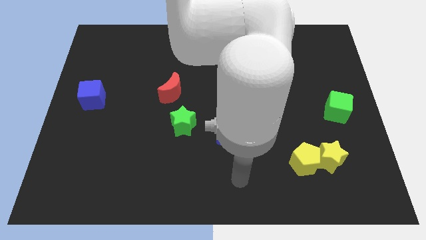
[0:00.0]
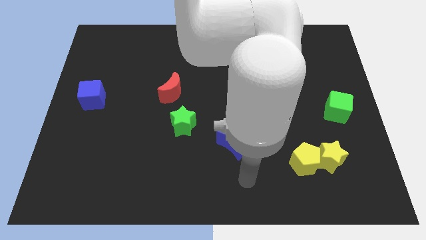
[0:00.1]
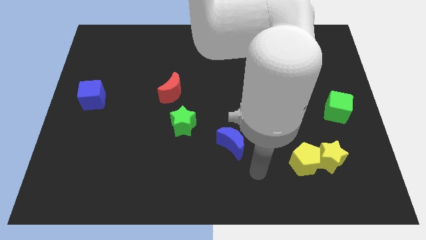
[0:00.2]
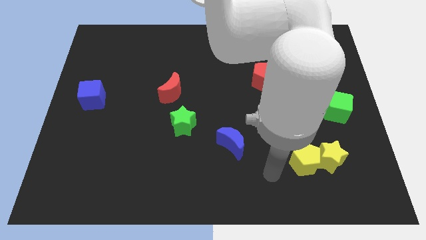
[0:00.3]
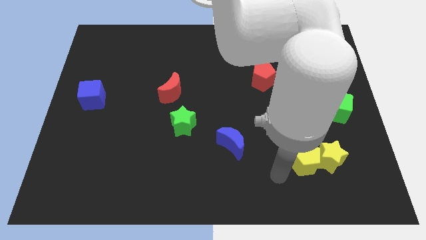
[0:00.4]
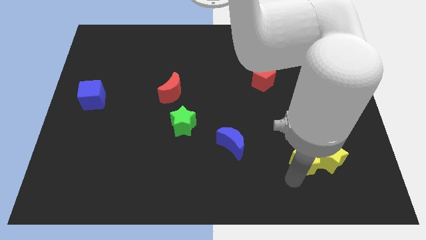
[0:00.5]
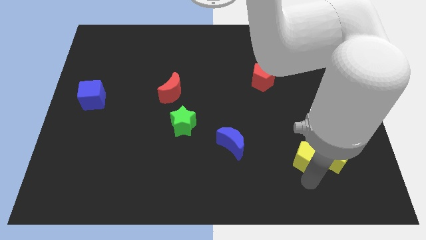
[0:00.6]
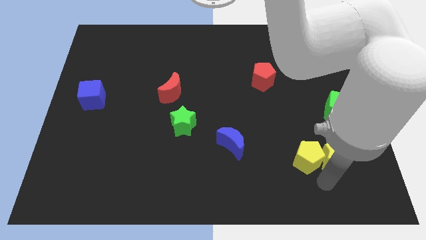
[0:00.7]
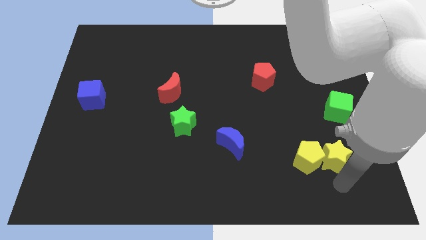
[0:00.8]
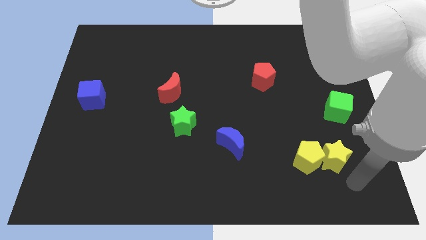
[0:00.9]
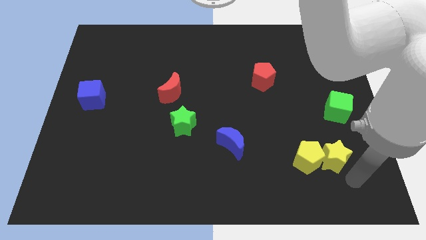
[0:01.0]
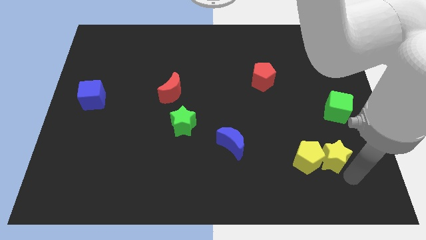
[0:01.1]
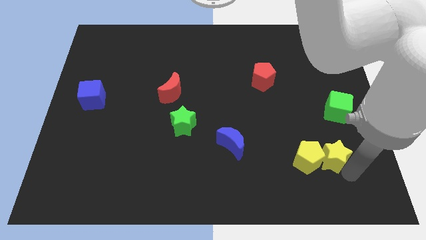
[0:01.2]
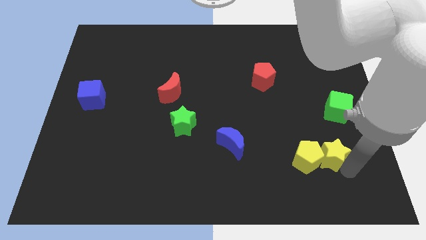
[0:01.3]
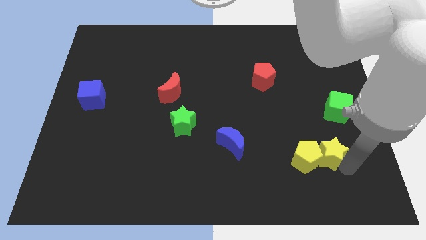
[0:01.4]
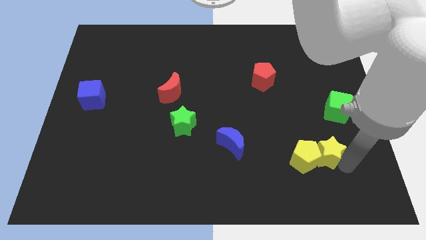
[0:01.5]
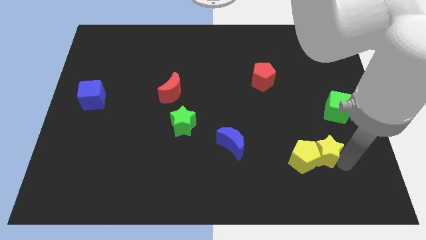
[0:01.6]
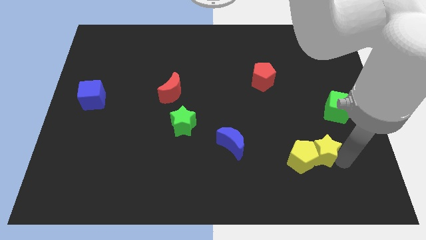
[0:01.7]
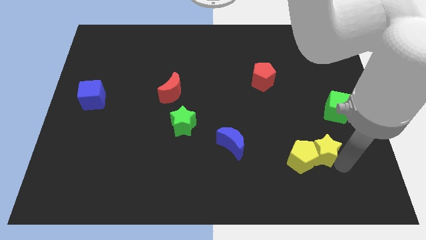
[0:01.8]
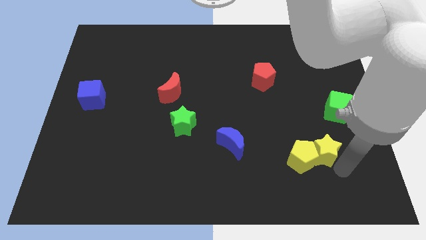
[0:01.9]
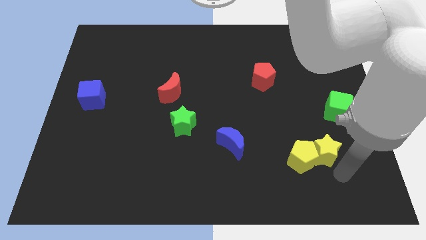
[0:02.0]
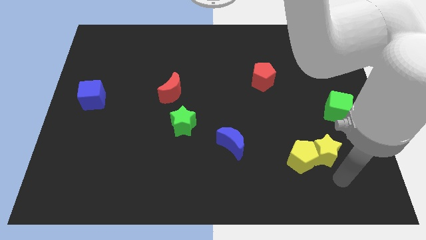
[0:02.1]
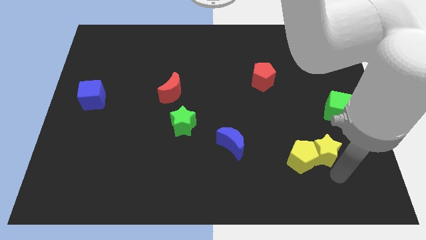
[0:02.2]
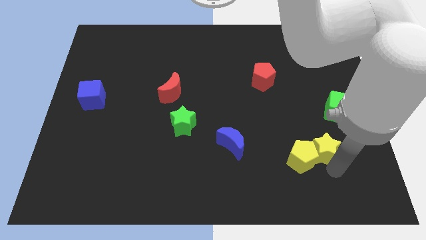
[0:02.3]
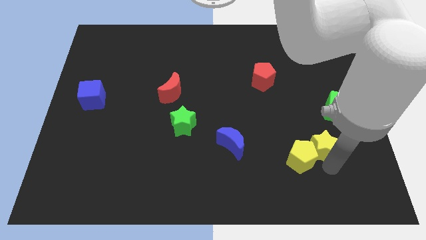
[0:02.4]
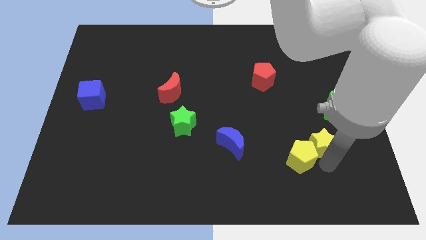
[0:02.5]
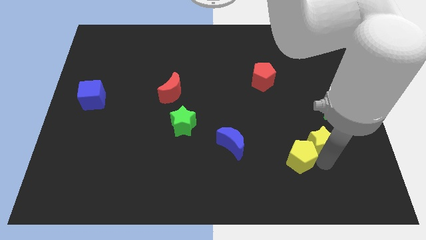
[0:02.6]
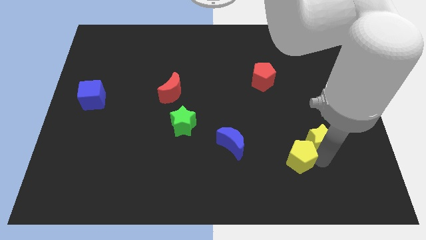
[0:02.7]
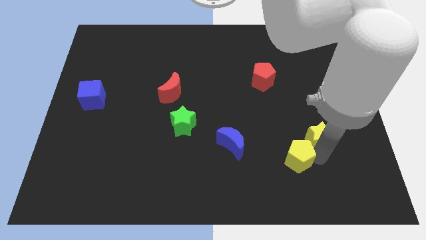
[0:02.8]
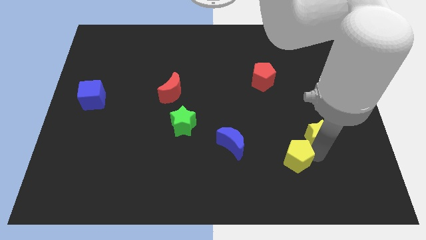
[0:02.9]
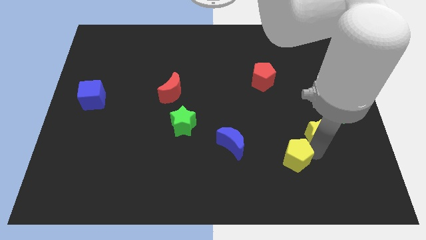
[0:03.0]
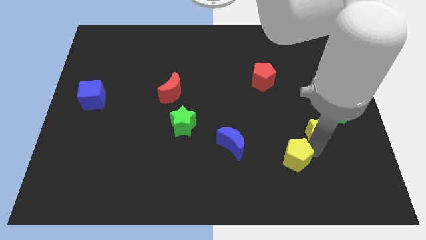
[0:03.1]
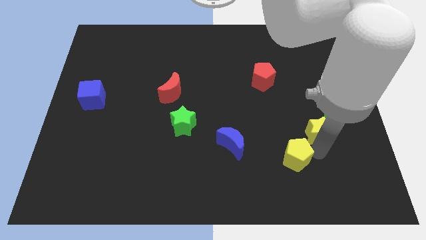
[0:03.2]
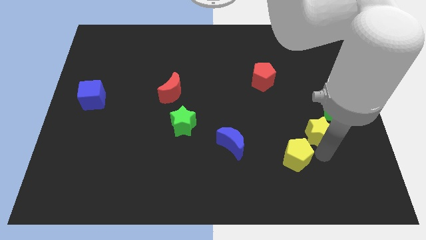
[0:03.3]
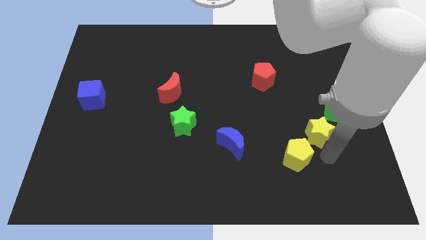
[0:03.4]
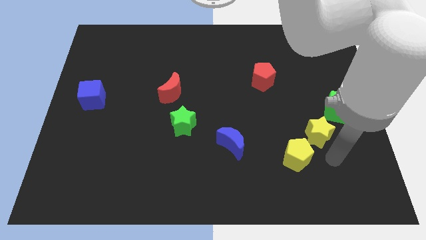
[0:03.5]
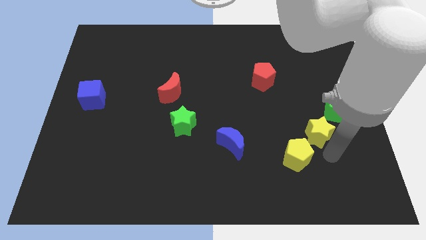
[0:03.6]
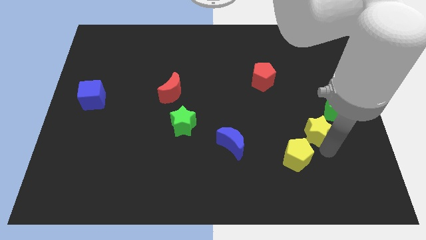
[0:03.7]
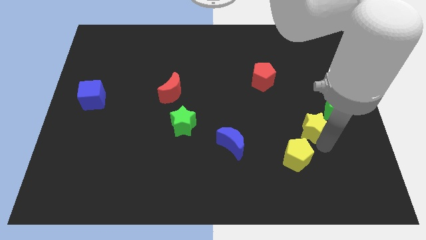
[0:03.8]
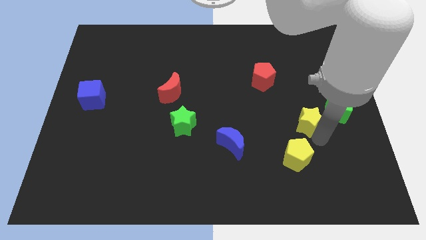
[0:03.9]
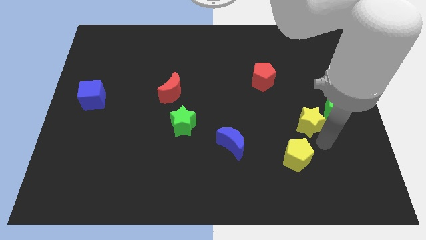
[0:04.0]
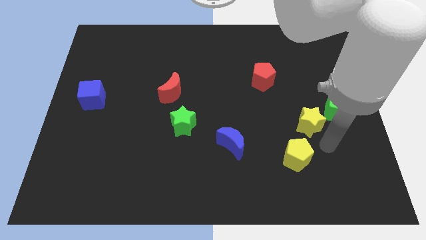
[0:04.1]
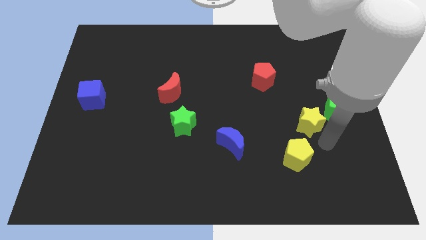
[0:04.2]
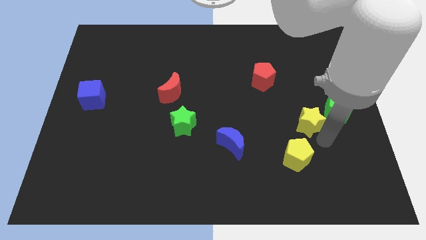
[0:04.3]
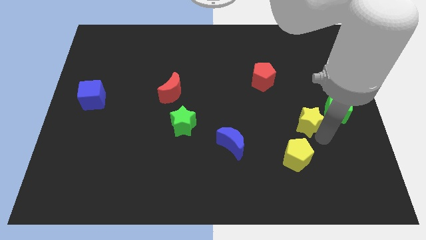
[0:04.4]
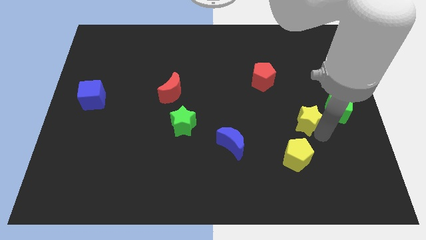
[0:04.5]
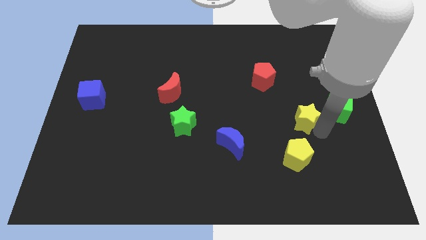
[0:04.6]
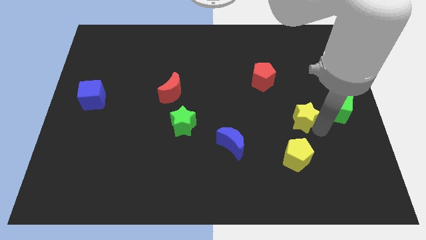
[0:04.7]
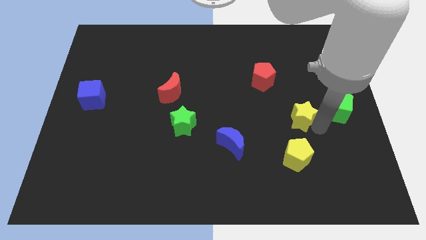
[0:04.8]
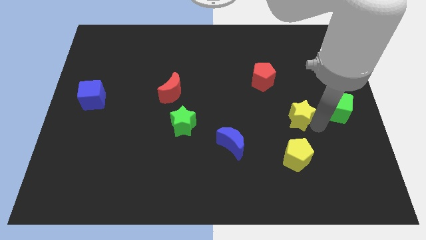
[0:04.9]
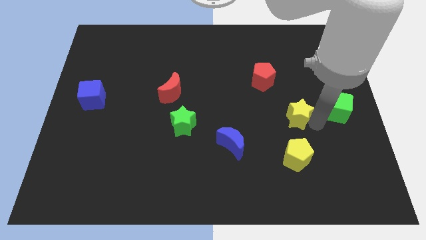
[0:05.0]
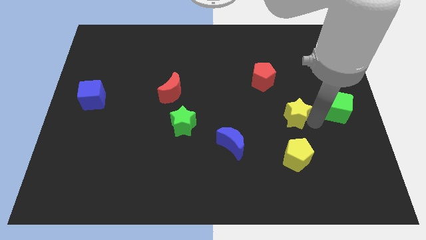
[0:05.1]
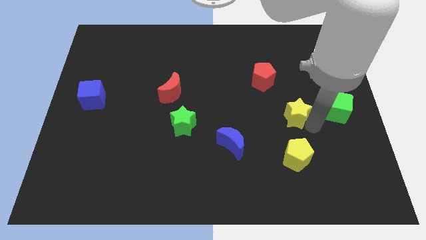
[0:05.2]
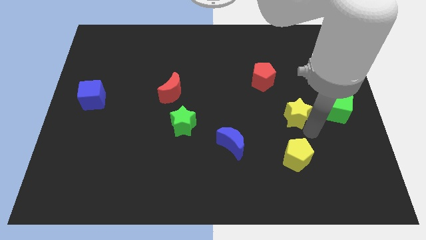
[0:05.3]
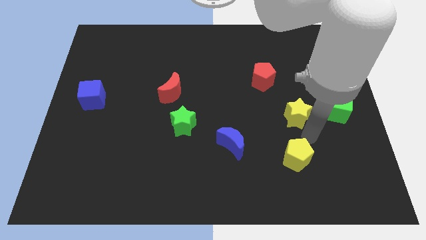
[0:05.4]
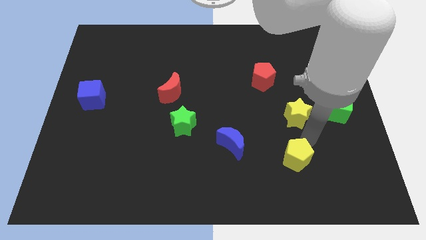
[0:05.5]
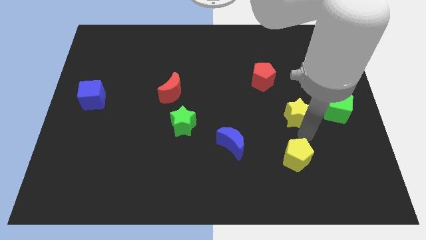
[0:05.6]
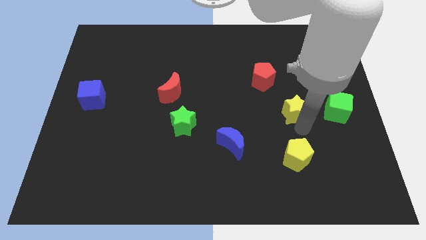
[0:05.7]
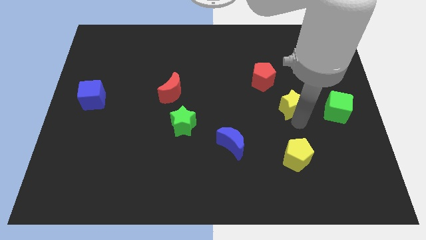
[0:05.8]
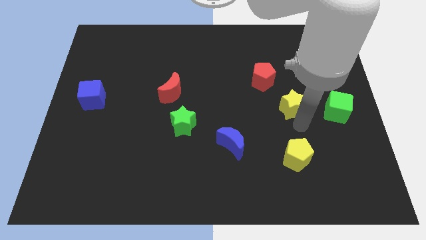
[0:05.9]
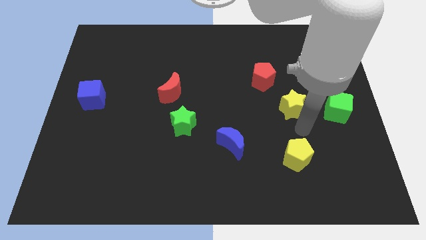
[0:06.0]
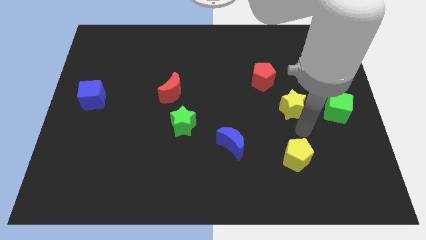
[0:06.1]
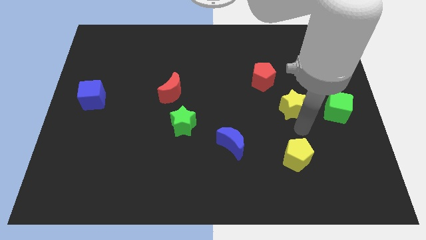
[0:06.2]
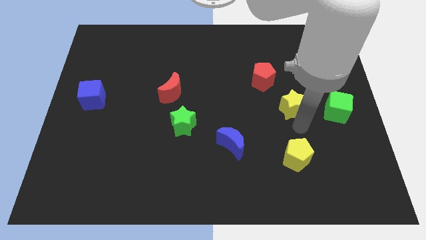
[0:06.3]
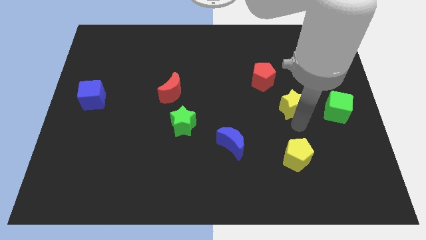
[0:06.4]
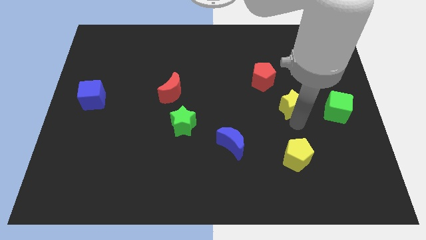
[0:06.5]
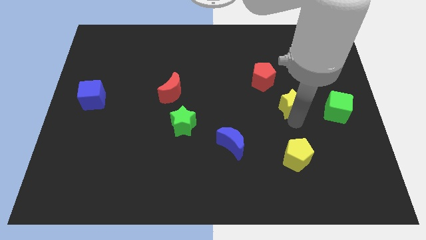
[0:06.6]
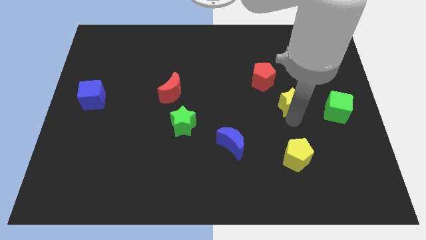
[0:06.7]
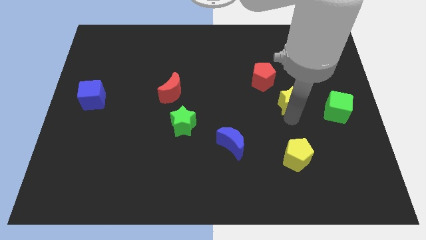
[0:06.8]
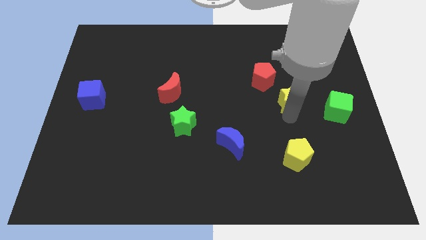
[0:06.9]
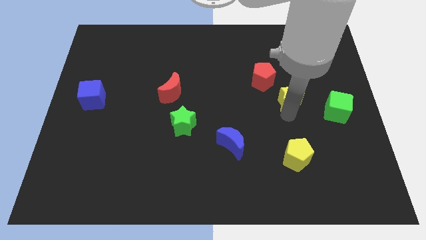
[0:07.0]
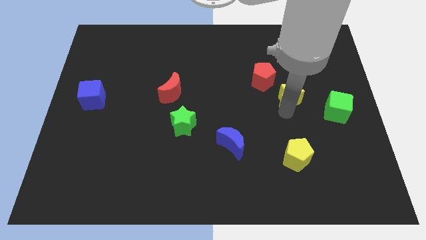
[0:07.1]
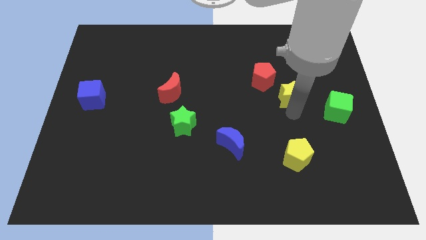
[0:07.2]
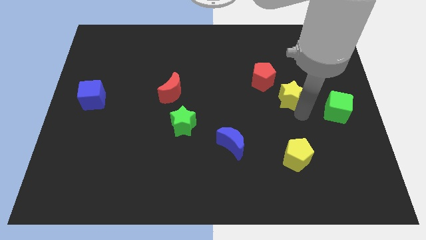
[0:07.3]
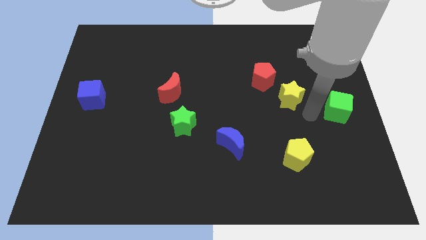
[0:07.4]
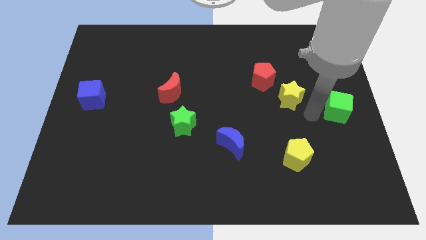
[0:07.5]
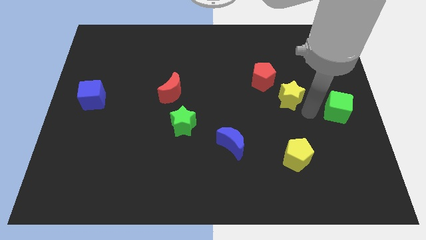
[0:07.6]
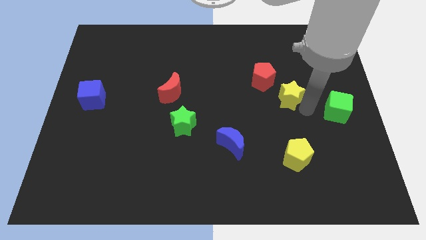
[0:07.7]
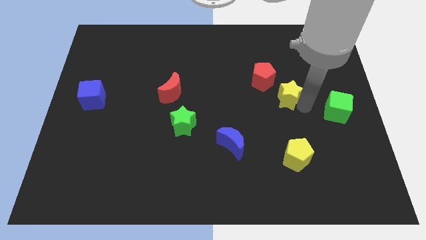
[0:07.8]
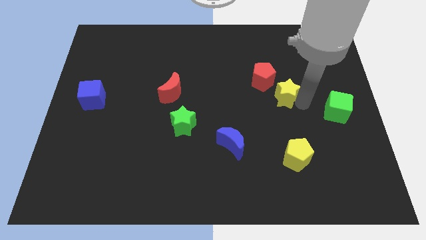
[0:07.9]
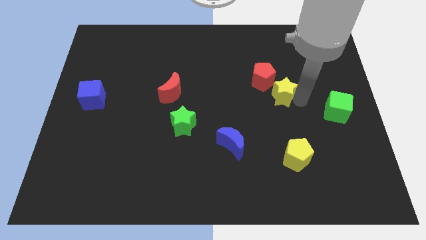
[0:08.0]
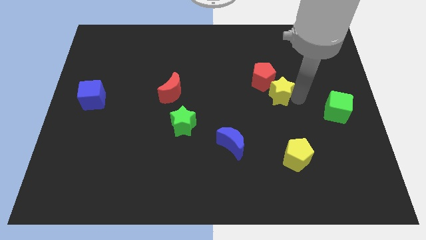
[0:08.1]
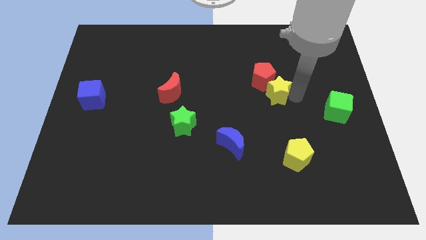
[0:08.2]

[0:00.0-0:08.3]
put the yellow star to the red pentagon
